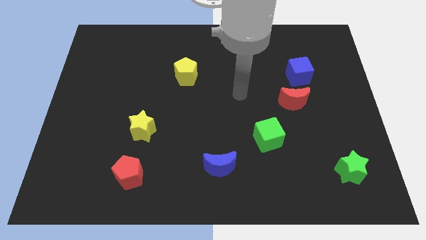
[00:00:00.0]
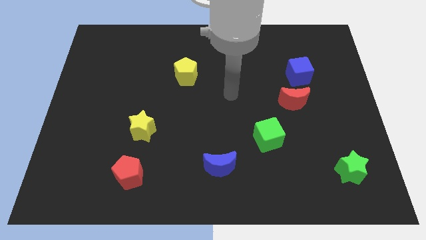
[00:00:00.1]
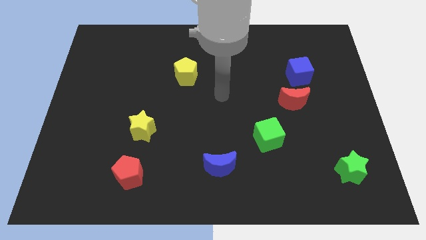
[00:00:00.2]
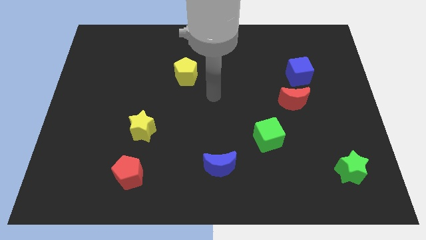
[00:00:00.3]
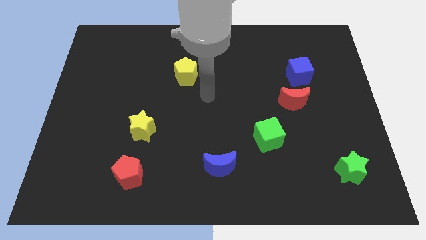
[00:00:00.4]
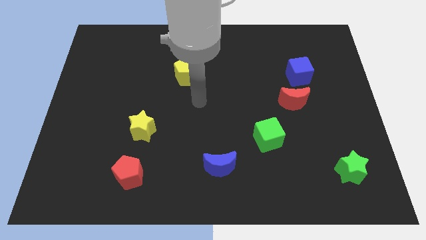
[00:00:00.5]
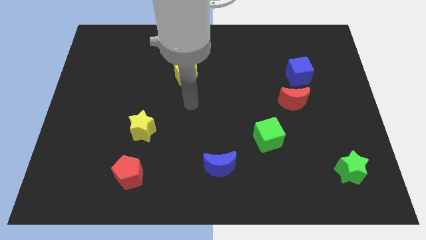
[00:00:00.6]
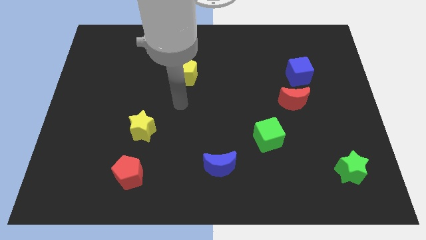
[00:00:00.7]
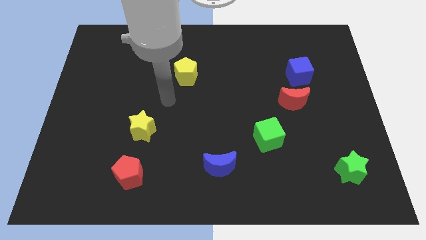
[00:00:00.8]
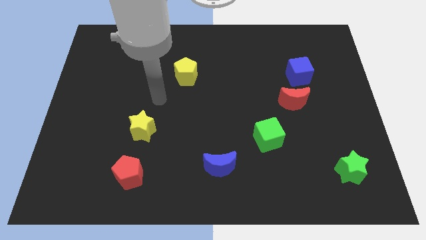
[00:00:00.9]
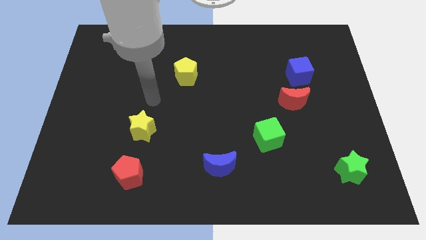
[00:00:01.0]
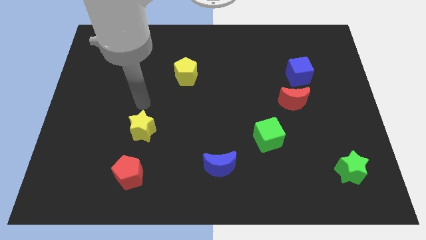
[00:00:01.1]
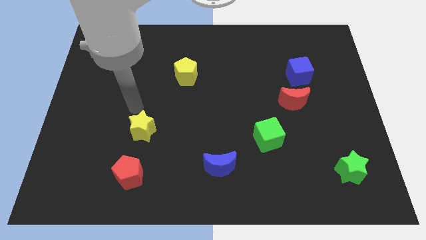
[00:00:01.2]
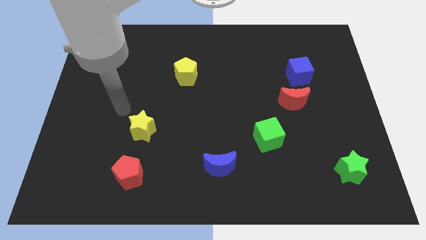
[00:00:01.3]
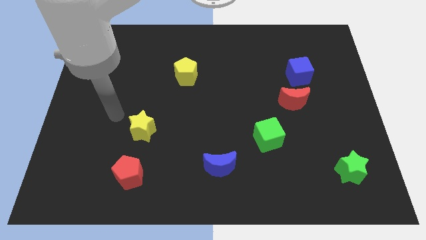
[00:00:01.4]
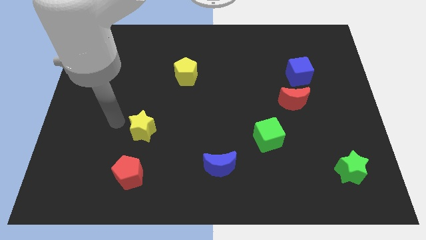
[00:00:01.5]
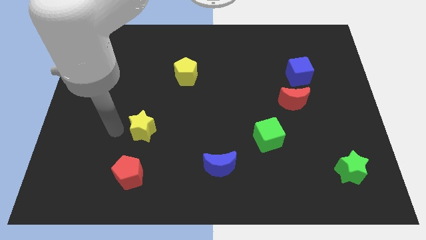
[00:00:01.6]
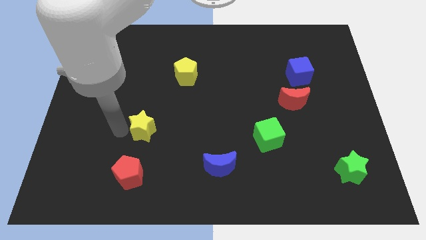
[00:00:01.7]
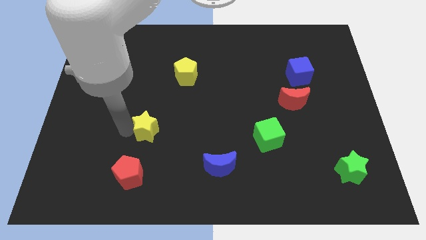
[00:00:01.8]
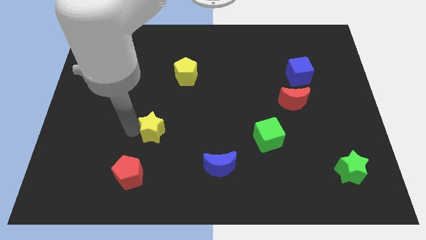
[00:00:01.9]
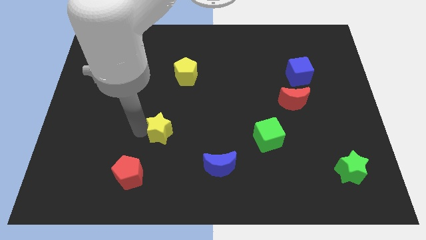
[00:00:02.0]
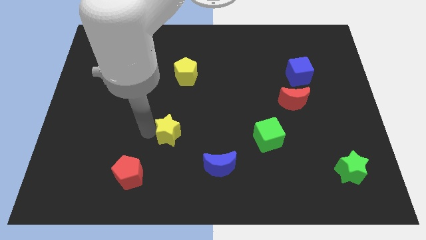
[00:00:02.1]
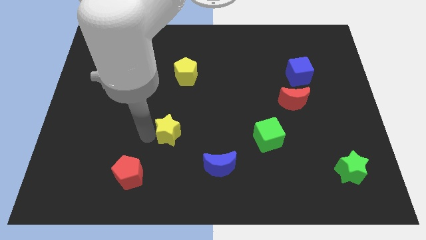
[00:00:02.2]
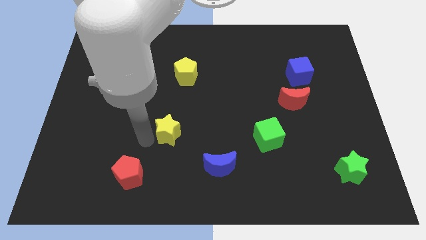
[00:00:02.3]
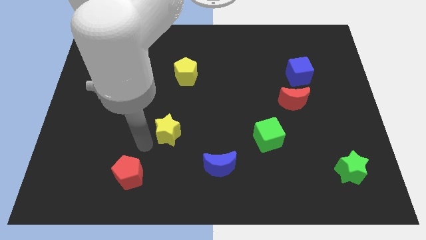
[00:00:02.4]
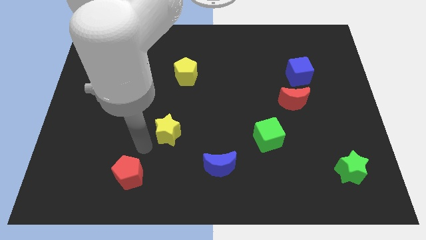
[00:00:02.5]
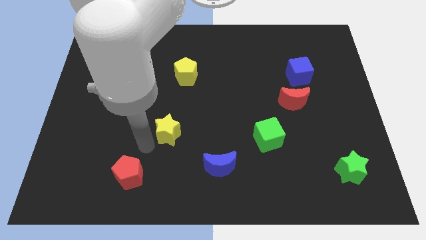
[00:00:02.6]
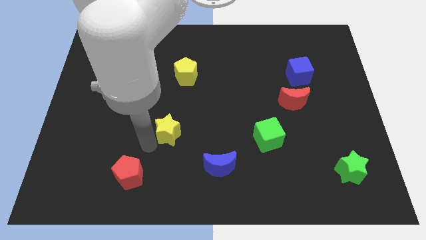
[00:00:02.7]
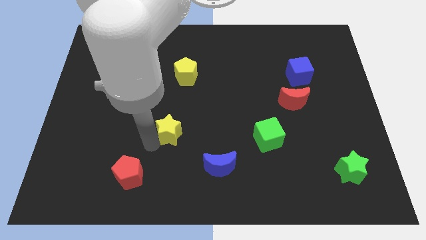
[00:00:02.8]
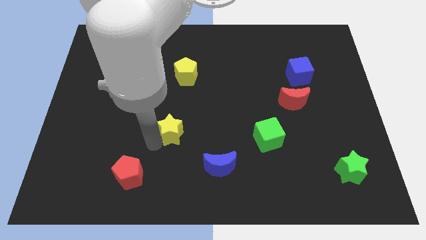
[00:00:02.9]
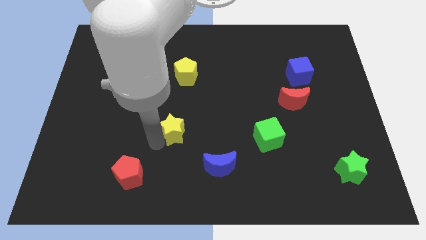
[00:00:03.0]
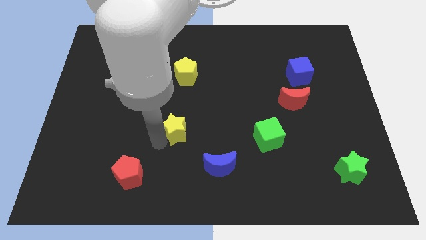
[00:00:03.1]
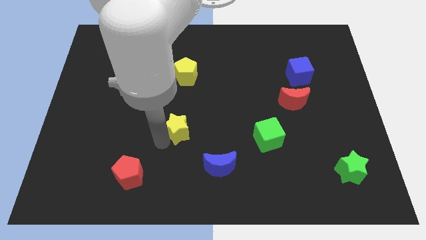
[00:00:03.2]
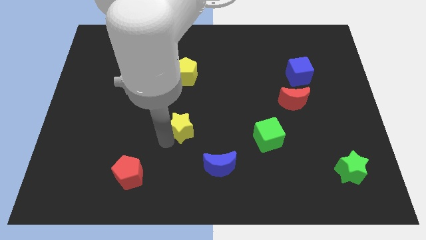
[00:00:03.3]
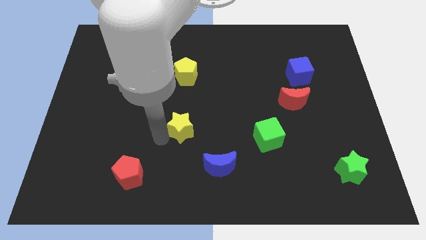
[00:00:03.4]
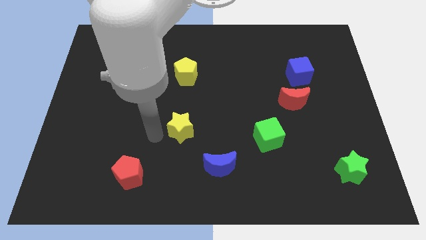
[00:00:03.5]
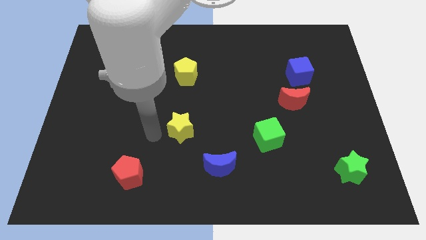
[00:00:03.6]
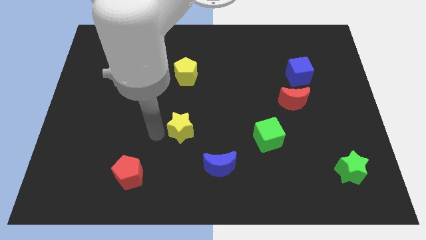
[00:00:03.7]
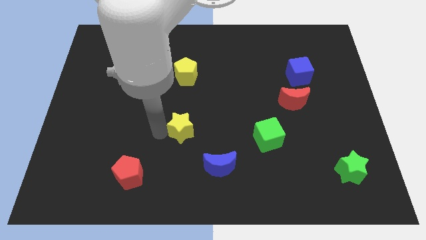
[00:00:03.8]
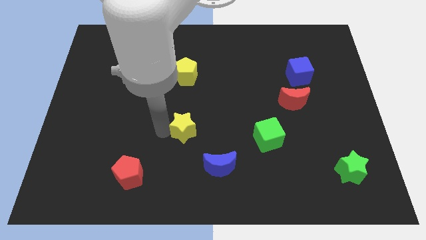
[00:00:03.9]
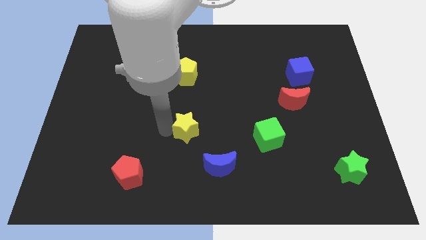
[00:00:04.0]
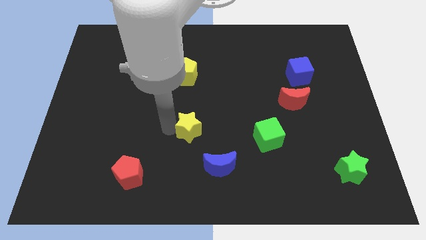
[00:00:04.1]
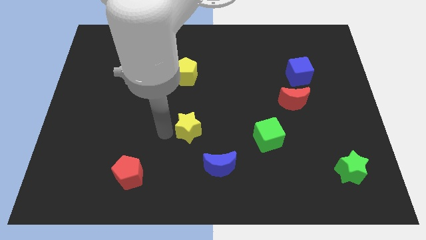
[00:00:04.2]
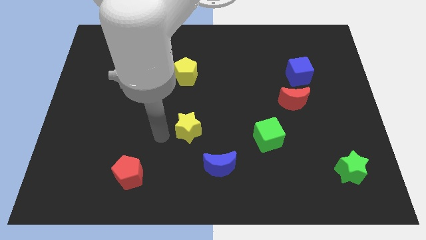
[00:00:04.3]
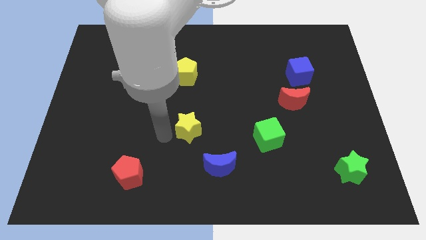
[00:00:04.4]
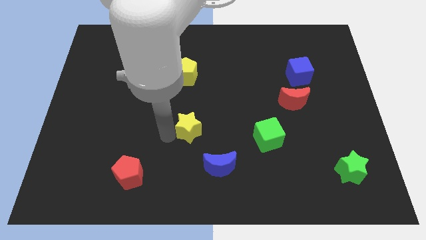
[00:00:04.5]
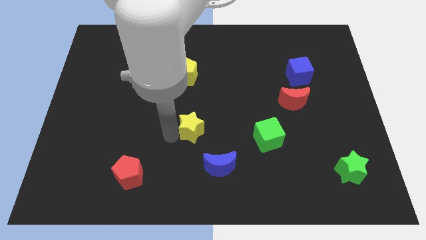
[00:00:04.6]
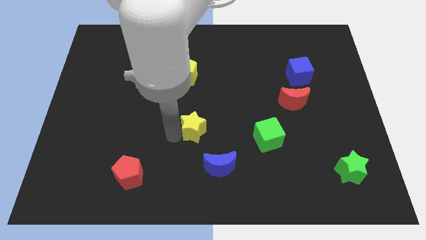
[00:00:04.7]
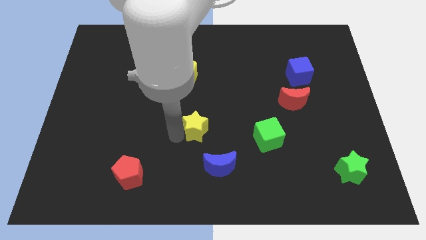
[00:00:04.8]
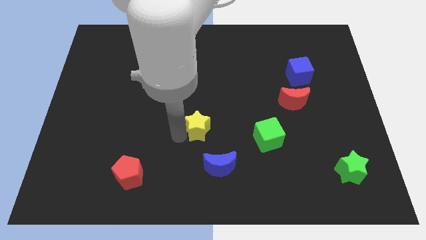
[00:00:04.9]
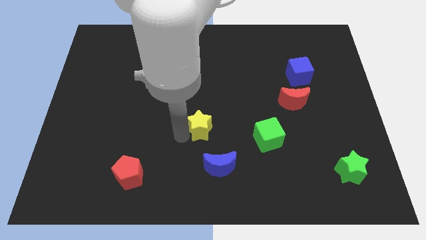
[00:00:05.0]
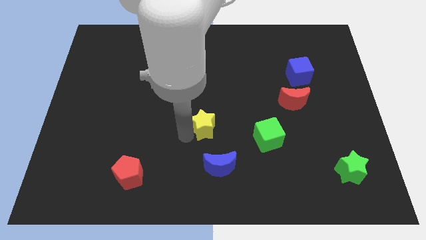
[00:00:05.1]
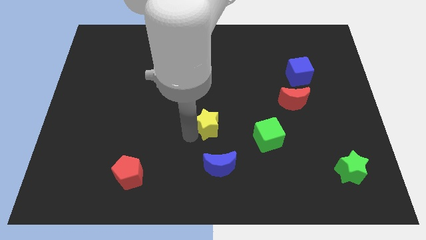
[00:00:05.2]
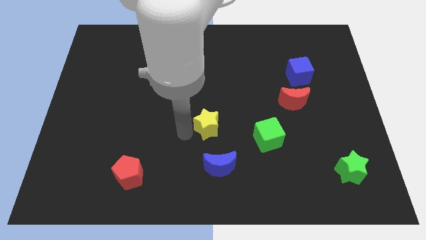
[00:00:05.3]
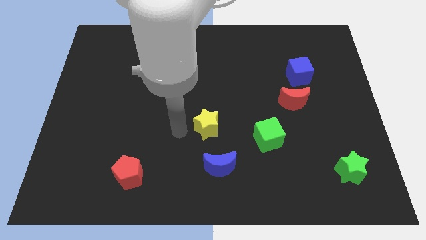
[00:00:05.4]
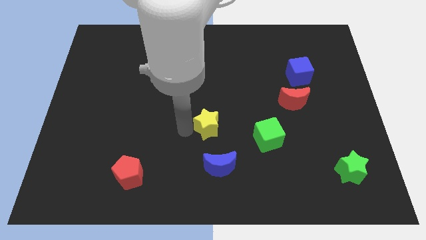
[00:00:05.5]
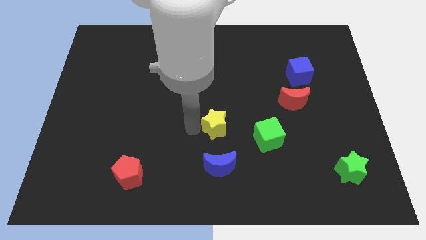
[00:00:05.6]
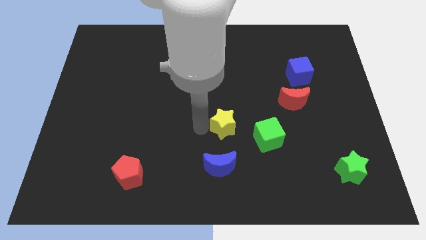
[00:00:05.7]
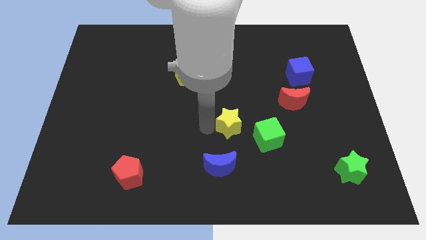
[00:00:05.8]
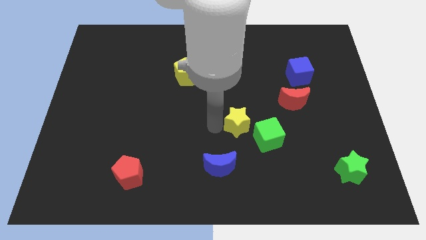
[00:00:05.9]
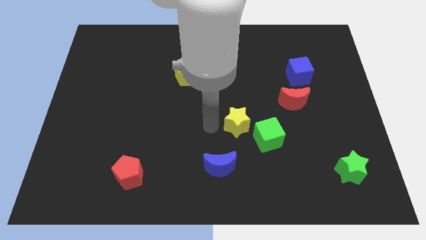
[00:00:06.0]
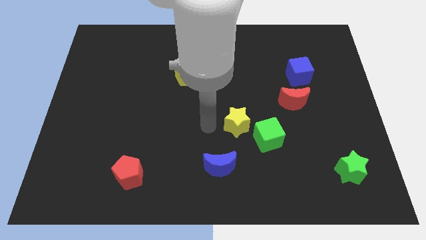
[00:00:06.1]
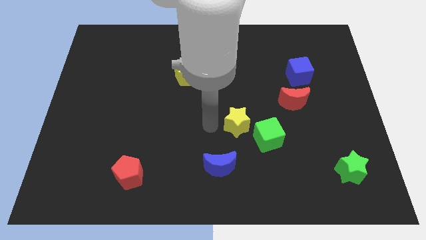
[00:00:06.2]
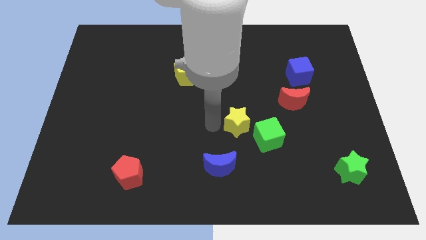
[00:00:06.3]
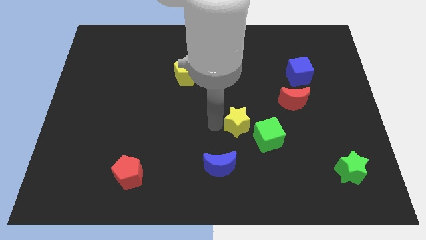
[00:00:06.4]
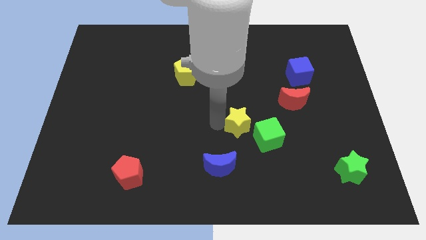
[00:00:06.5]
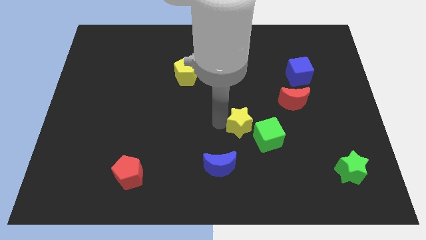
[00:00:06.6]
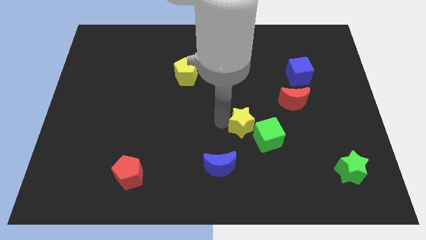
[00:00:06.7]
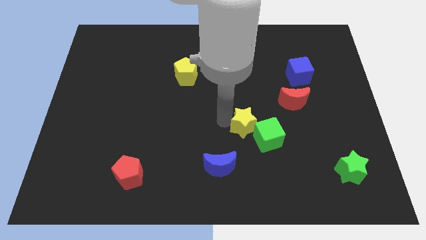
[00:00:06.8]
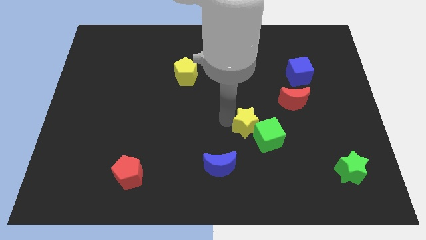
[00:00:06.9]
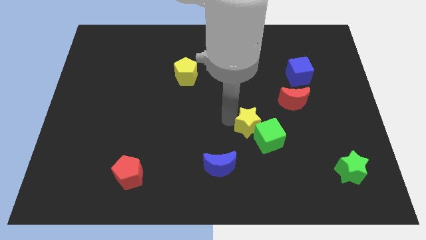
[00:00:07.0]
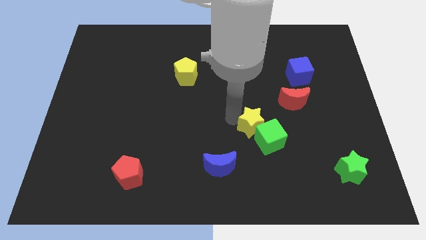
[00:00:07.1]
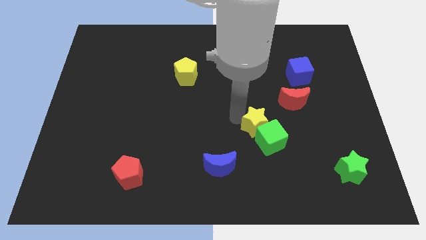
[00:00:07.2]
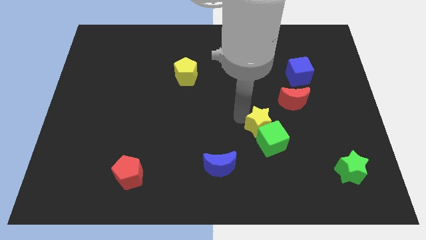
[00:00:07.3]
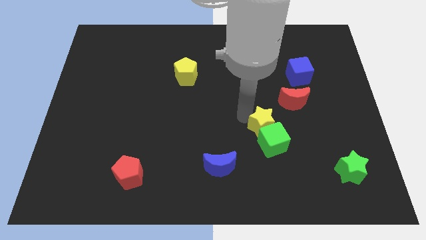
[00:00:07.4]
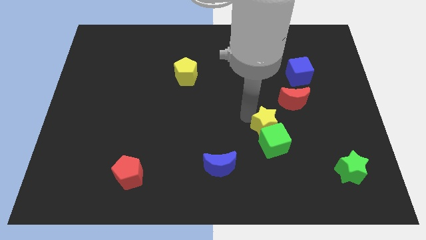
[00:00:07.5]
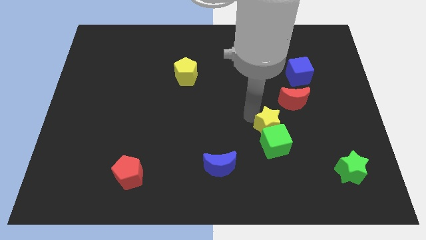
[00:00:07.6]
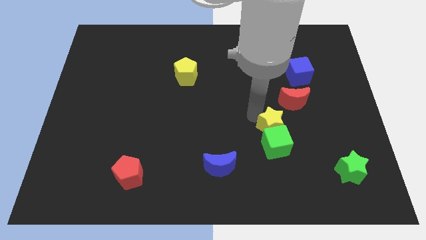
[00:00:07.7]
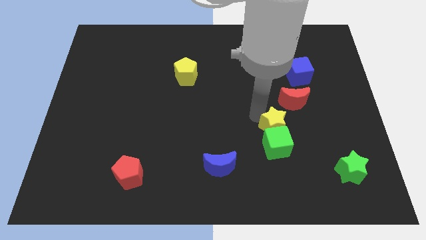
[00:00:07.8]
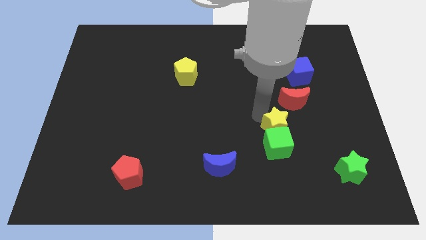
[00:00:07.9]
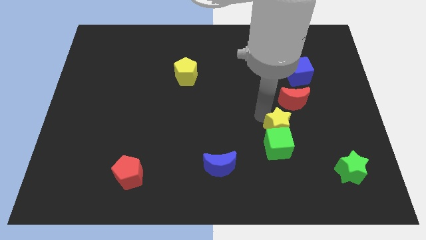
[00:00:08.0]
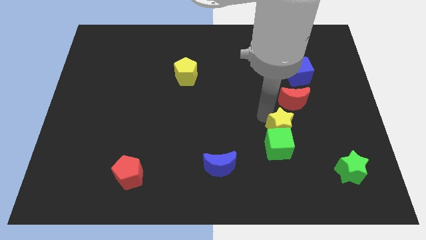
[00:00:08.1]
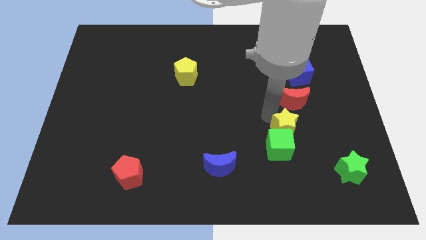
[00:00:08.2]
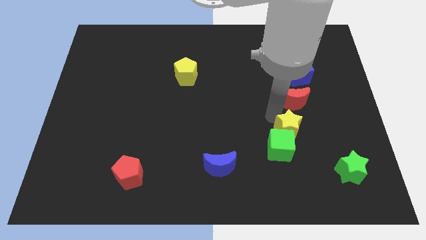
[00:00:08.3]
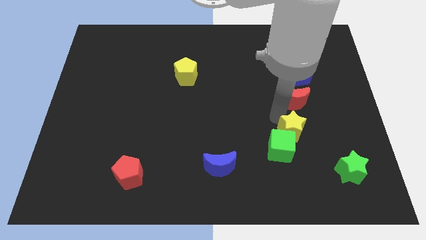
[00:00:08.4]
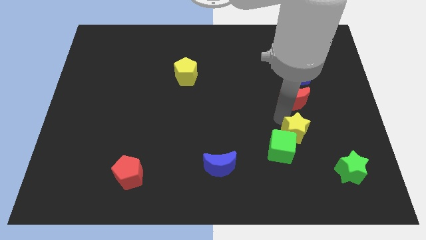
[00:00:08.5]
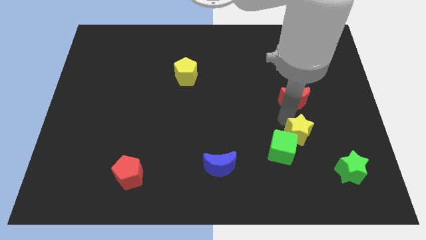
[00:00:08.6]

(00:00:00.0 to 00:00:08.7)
put the yellow star right of the green cube
